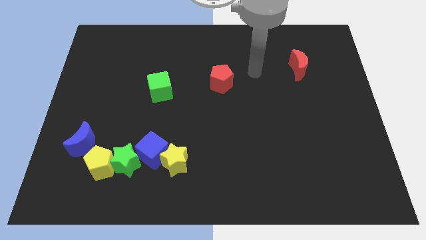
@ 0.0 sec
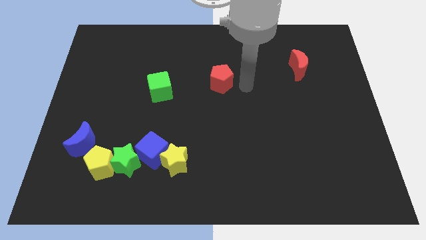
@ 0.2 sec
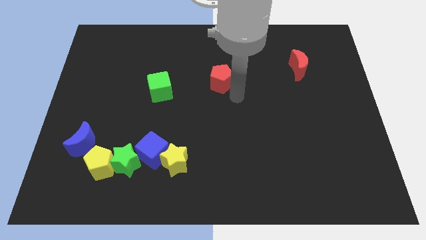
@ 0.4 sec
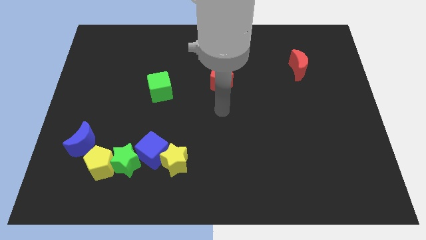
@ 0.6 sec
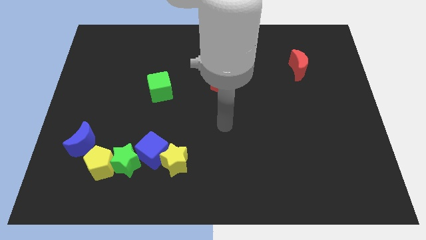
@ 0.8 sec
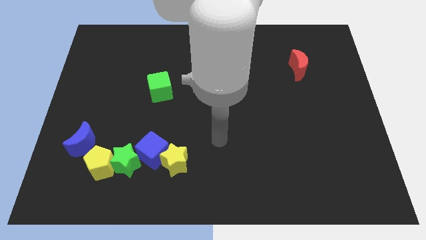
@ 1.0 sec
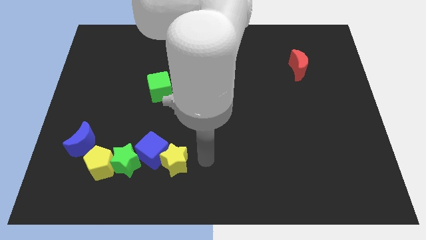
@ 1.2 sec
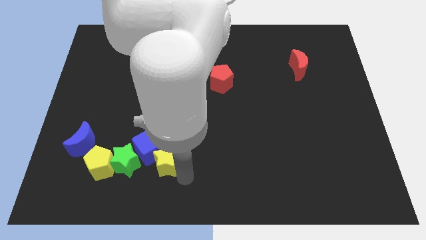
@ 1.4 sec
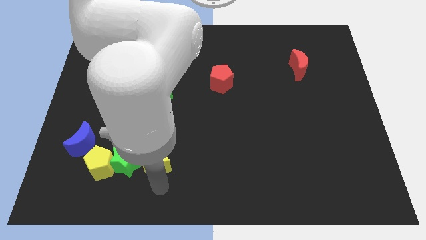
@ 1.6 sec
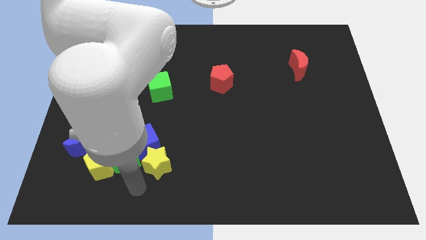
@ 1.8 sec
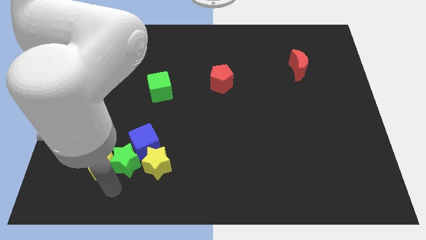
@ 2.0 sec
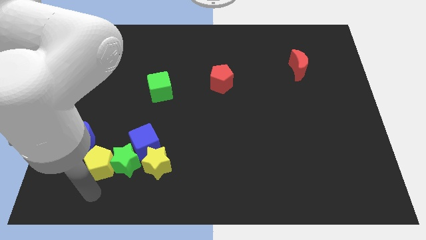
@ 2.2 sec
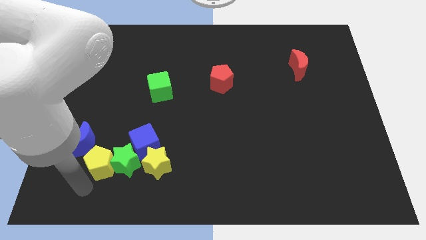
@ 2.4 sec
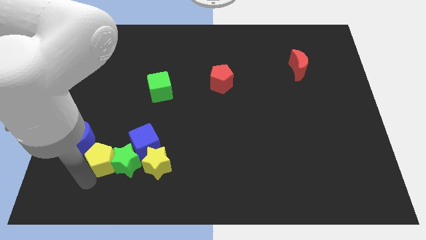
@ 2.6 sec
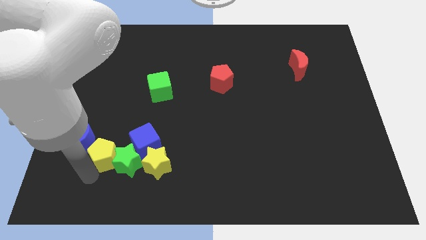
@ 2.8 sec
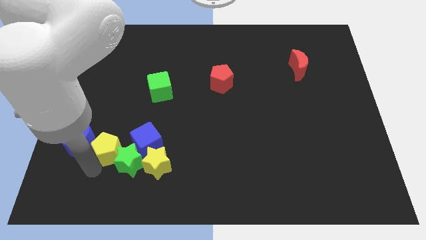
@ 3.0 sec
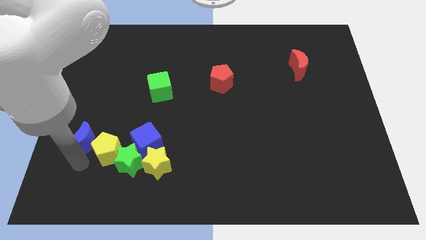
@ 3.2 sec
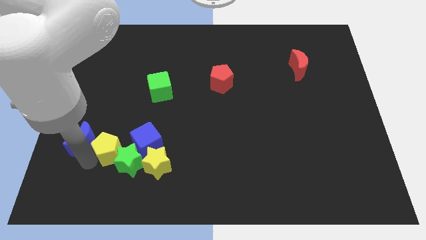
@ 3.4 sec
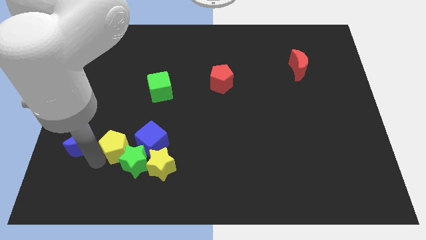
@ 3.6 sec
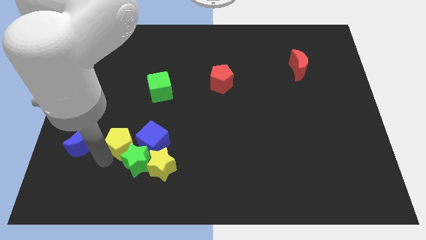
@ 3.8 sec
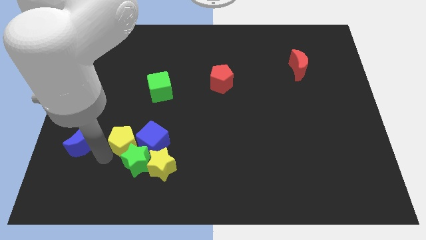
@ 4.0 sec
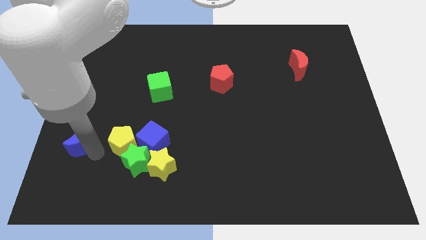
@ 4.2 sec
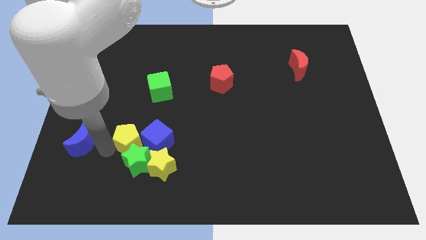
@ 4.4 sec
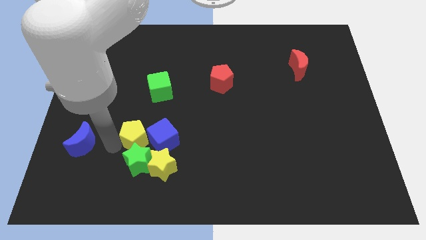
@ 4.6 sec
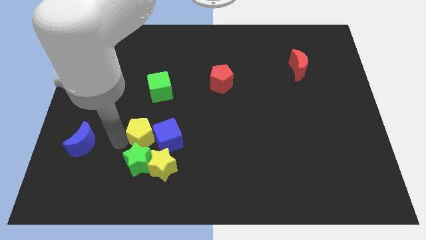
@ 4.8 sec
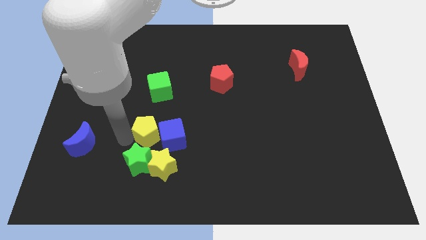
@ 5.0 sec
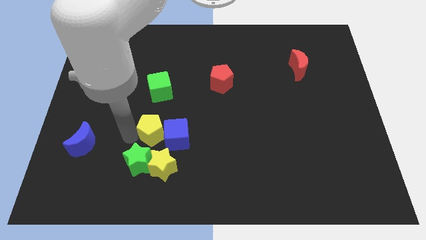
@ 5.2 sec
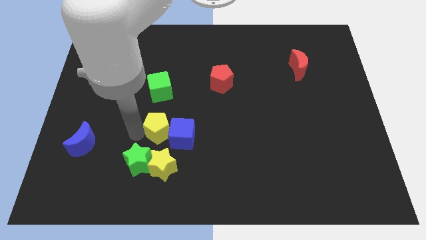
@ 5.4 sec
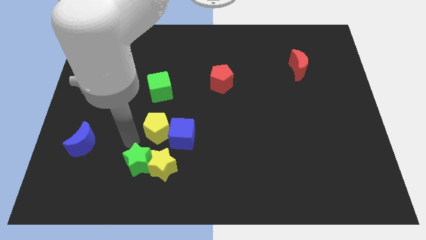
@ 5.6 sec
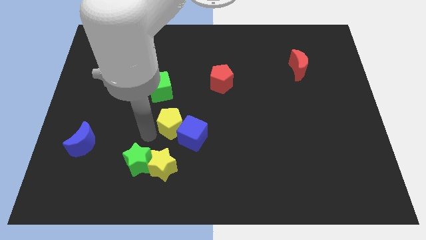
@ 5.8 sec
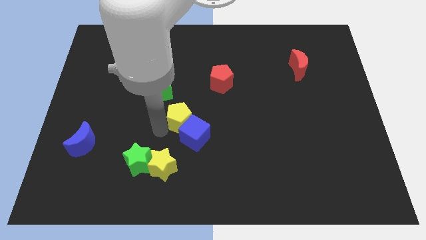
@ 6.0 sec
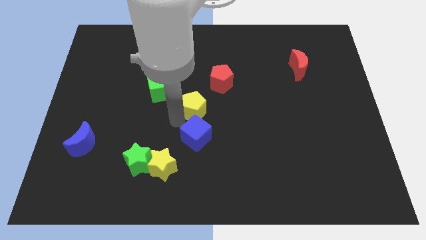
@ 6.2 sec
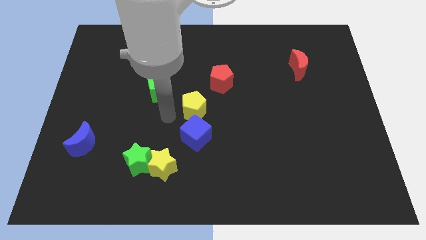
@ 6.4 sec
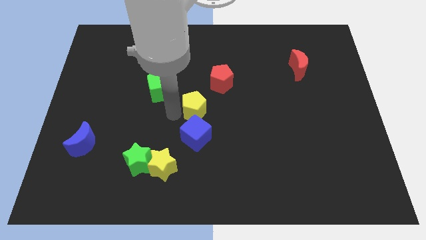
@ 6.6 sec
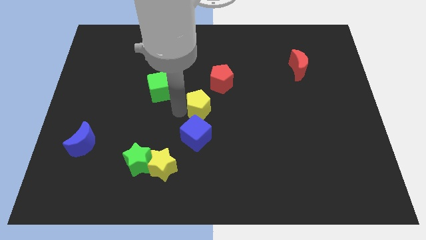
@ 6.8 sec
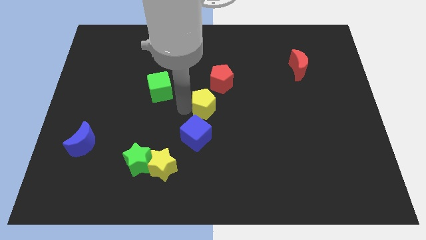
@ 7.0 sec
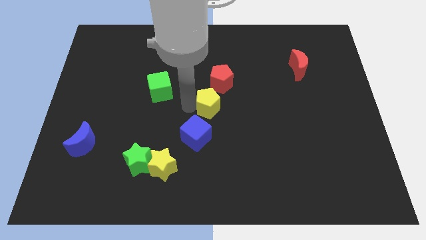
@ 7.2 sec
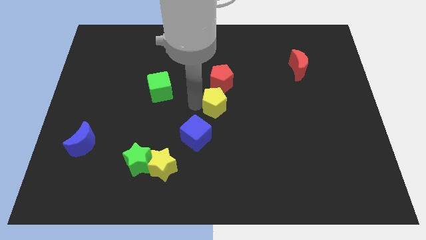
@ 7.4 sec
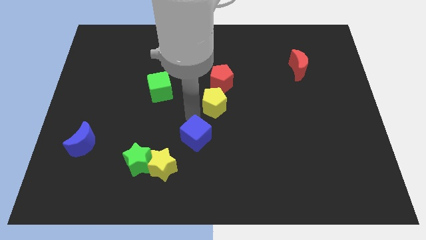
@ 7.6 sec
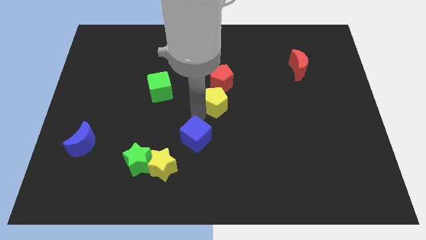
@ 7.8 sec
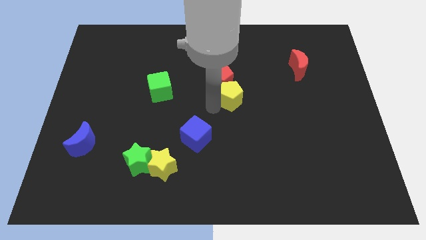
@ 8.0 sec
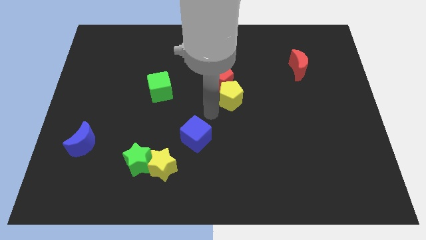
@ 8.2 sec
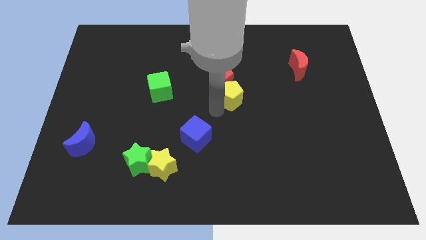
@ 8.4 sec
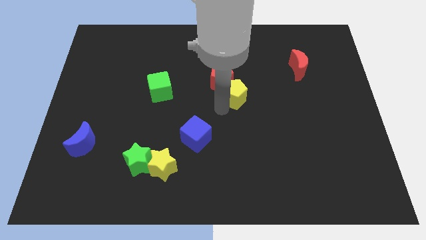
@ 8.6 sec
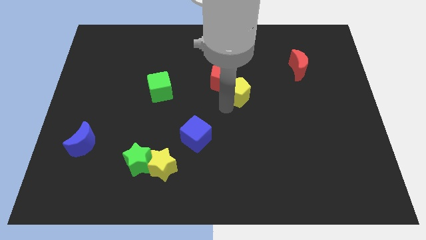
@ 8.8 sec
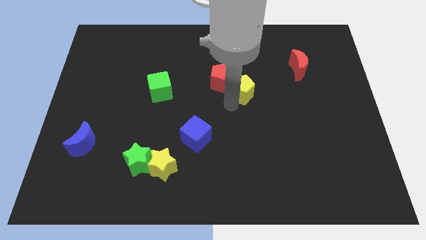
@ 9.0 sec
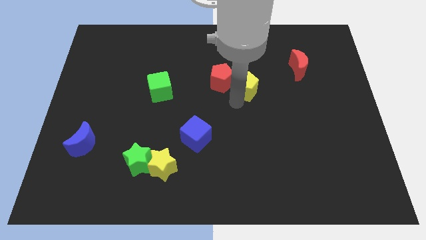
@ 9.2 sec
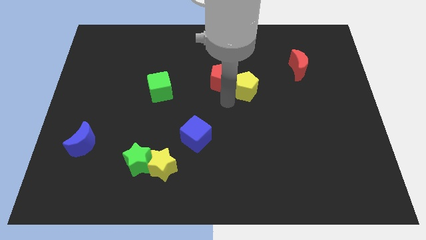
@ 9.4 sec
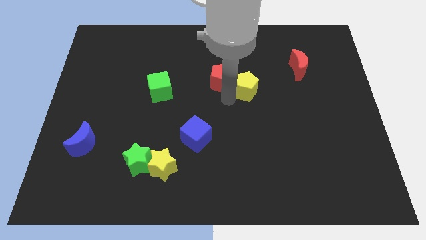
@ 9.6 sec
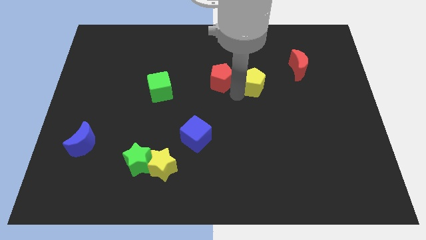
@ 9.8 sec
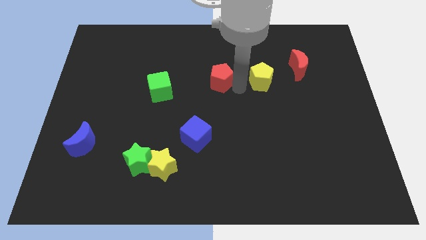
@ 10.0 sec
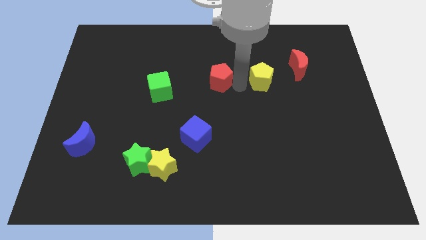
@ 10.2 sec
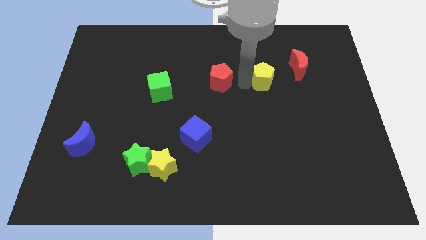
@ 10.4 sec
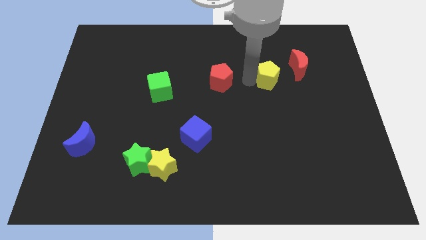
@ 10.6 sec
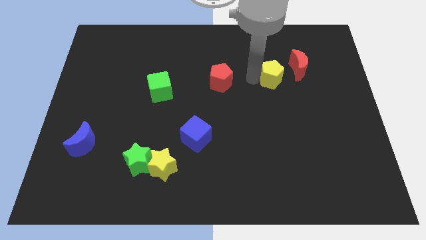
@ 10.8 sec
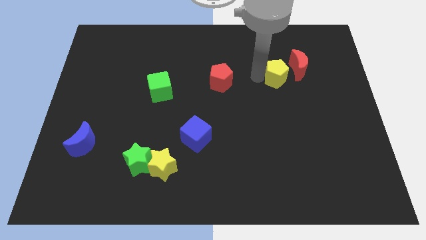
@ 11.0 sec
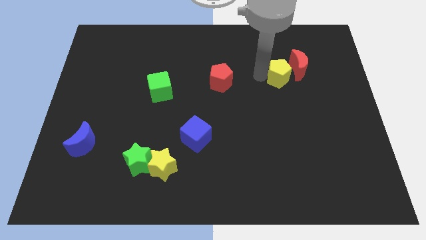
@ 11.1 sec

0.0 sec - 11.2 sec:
move the yellow pentagon next to the red moon

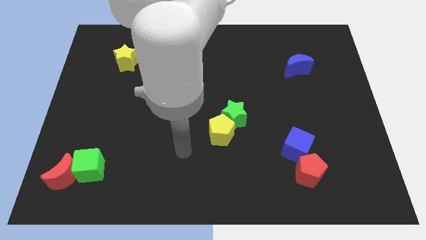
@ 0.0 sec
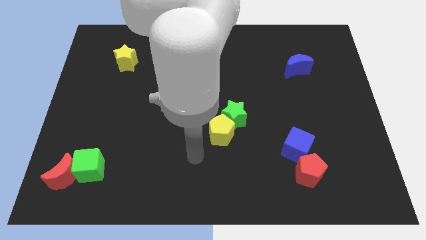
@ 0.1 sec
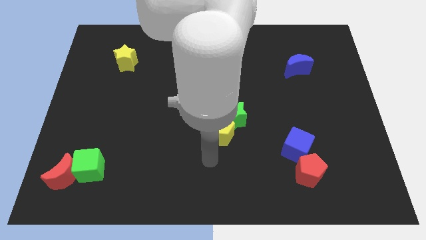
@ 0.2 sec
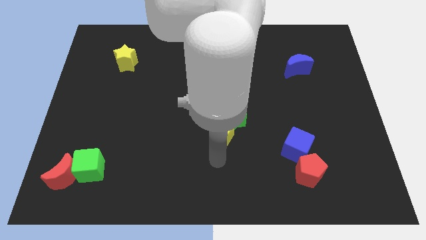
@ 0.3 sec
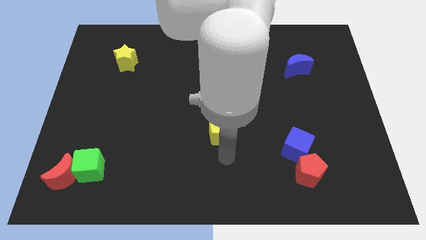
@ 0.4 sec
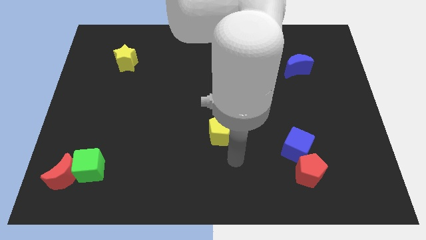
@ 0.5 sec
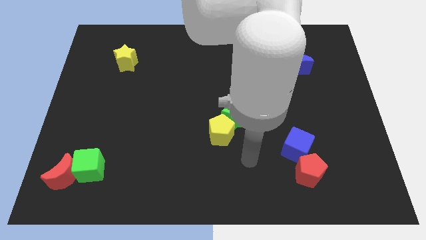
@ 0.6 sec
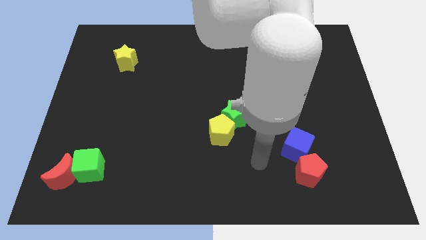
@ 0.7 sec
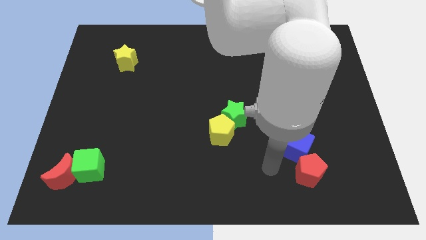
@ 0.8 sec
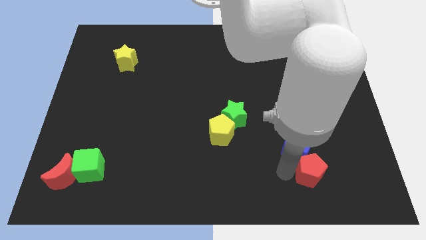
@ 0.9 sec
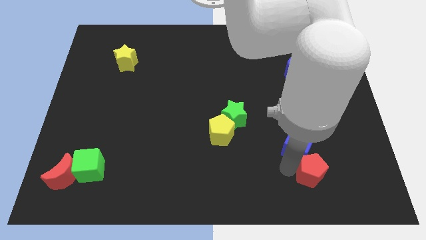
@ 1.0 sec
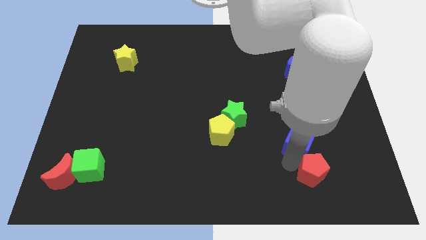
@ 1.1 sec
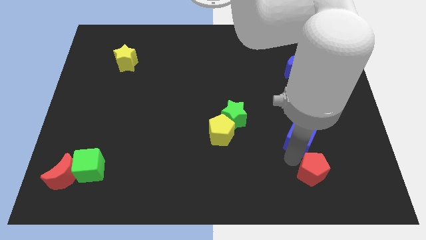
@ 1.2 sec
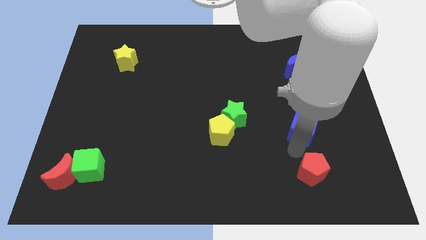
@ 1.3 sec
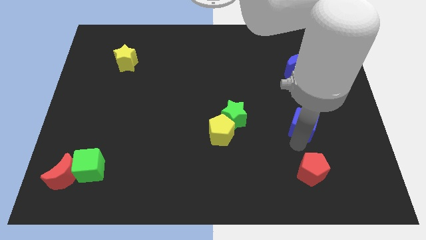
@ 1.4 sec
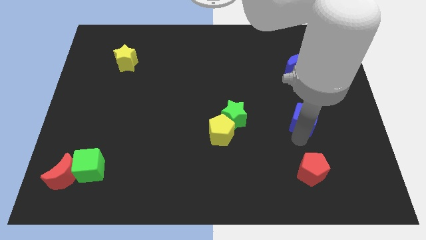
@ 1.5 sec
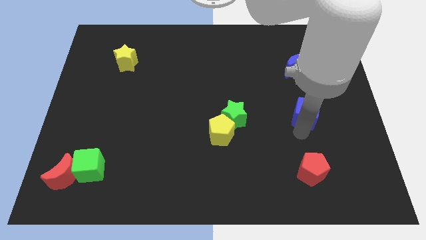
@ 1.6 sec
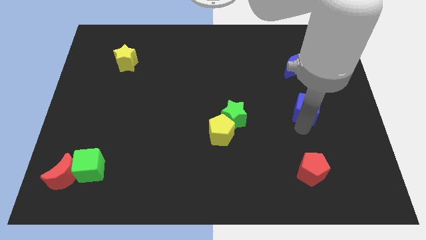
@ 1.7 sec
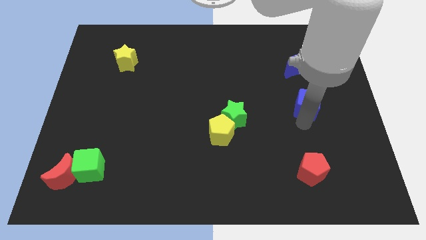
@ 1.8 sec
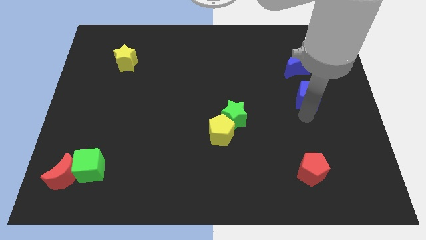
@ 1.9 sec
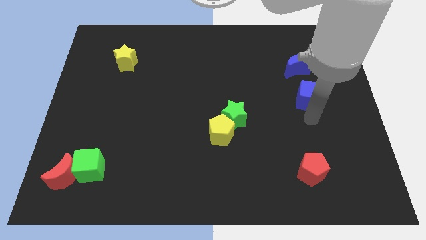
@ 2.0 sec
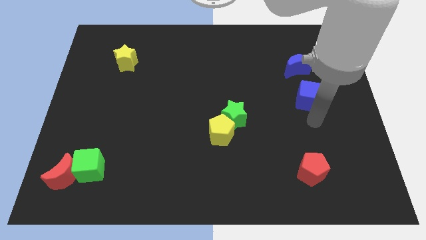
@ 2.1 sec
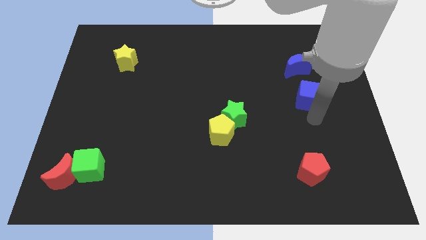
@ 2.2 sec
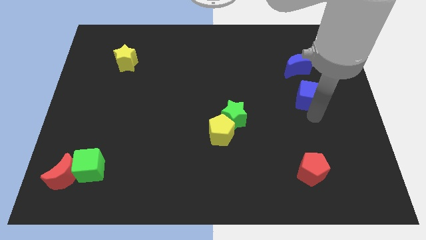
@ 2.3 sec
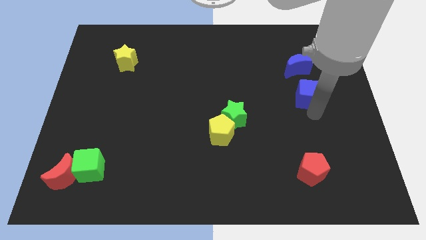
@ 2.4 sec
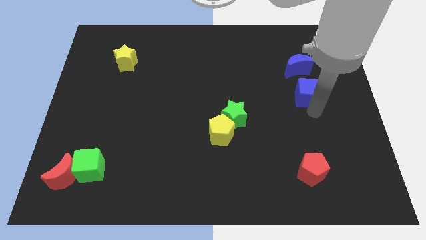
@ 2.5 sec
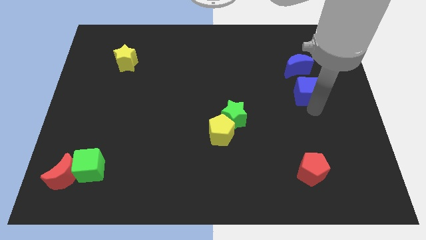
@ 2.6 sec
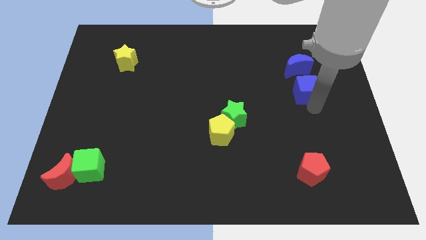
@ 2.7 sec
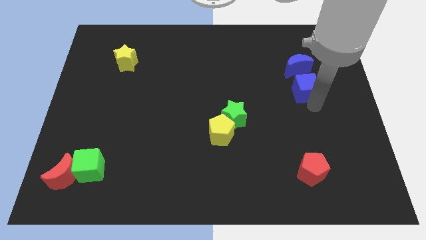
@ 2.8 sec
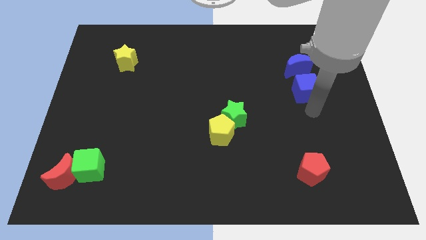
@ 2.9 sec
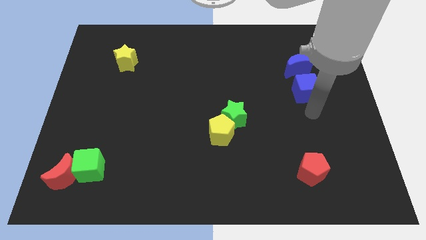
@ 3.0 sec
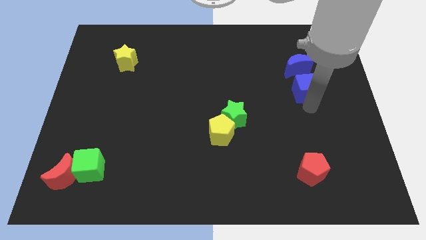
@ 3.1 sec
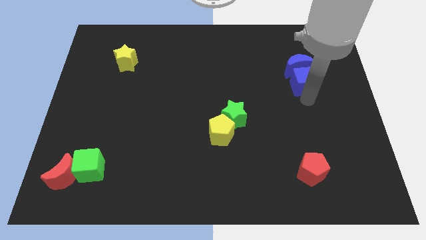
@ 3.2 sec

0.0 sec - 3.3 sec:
push the blue cube next to the blue moon
